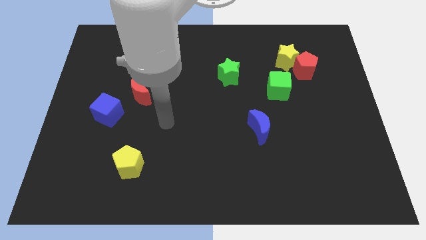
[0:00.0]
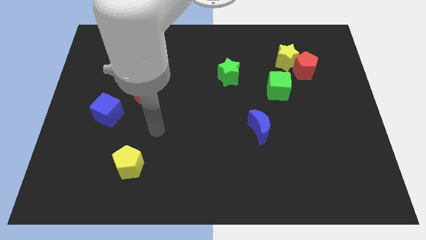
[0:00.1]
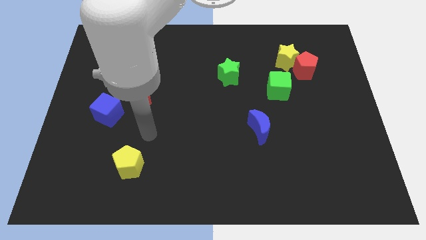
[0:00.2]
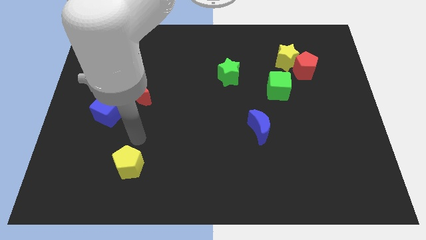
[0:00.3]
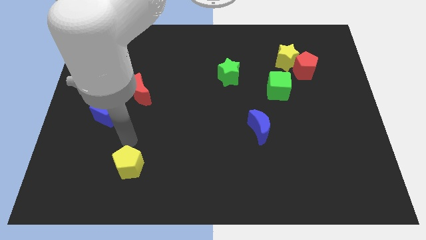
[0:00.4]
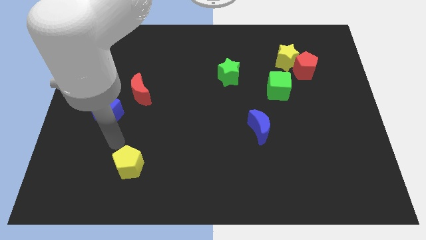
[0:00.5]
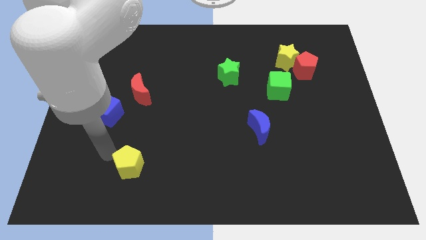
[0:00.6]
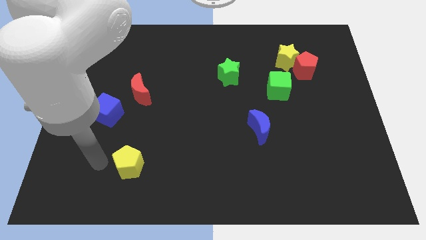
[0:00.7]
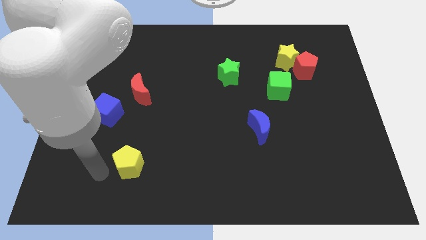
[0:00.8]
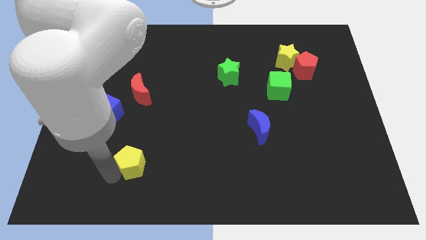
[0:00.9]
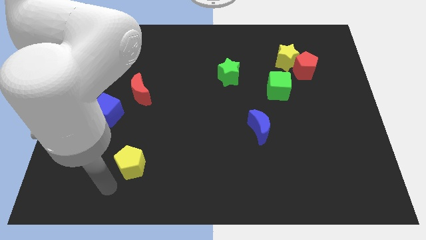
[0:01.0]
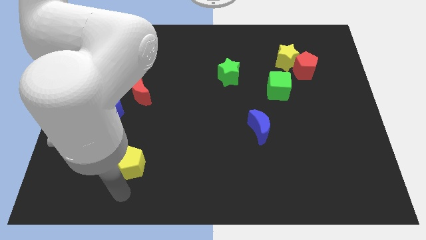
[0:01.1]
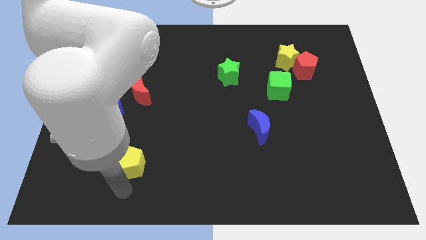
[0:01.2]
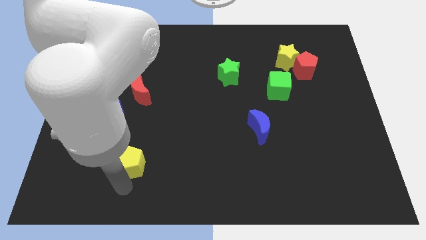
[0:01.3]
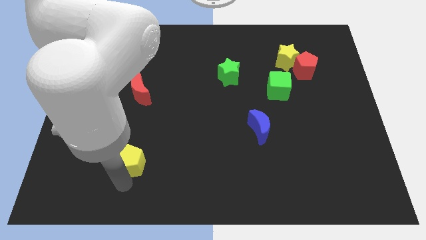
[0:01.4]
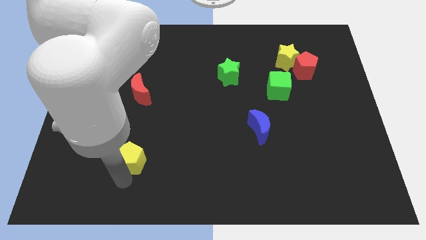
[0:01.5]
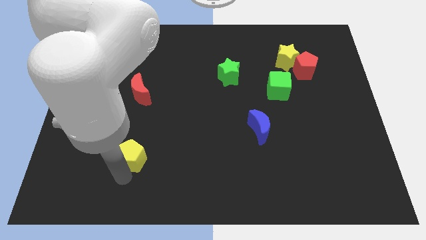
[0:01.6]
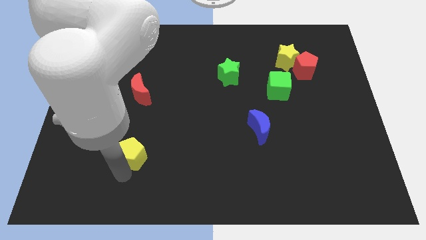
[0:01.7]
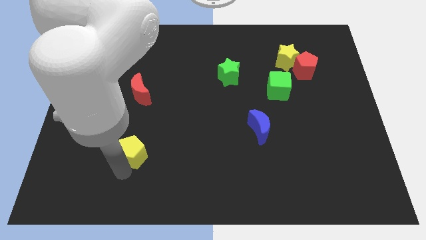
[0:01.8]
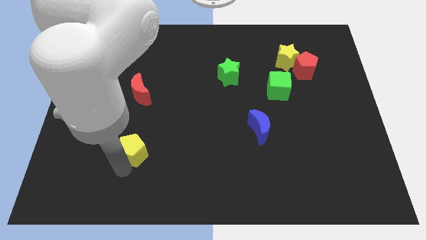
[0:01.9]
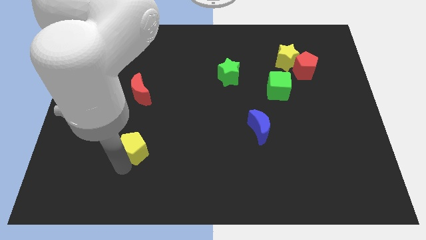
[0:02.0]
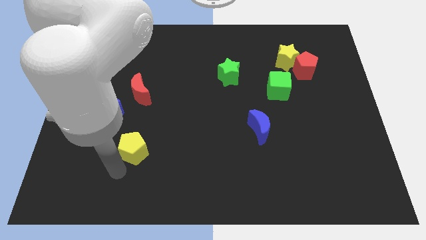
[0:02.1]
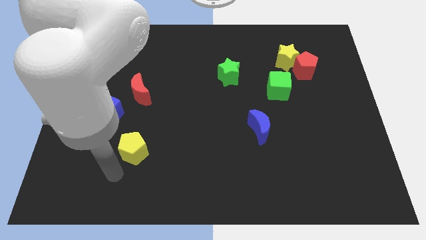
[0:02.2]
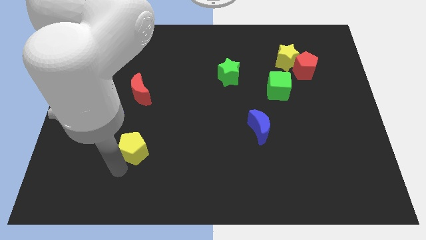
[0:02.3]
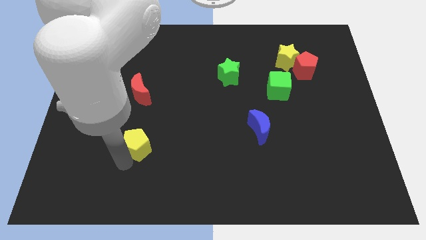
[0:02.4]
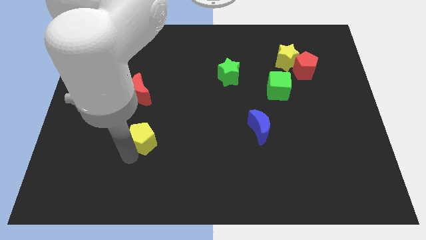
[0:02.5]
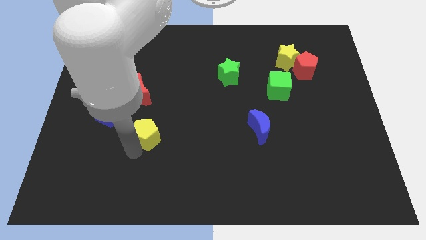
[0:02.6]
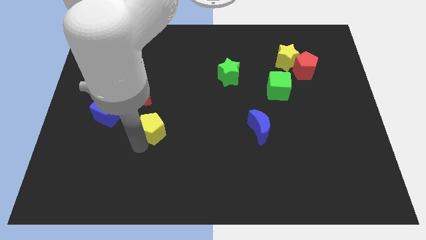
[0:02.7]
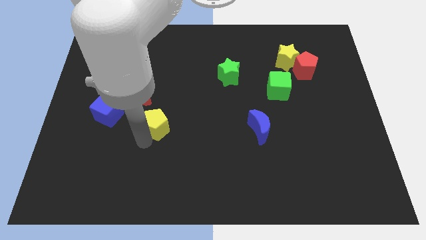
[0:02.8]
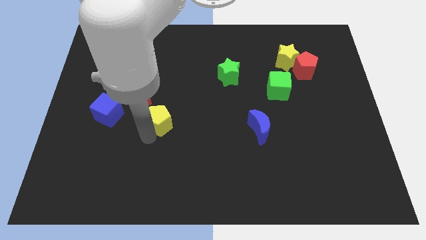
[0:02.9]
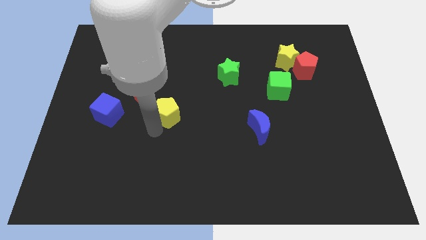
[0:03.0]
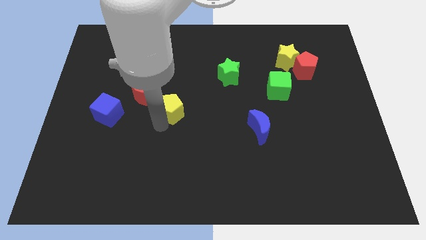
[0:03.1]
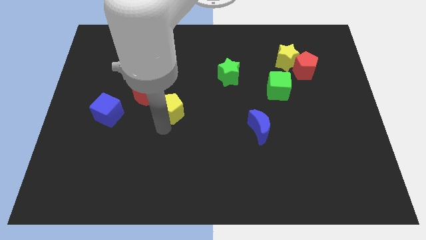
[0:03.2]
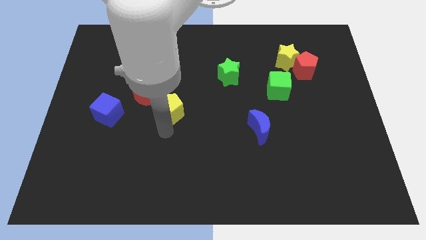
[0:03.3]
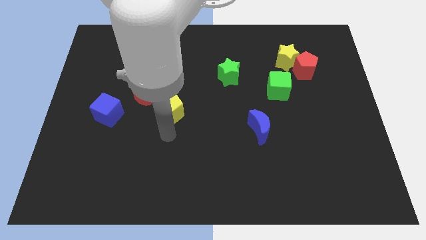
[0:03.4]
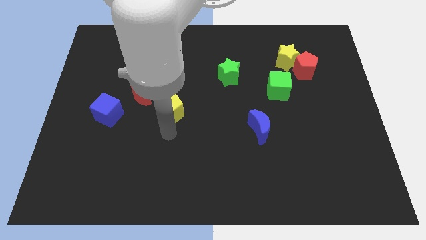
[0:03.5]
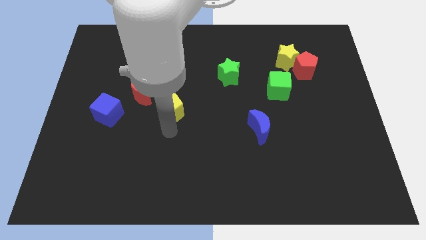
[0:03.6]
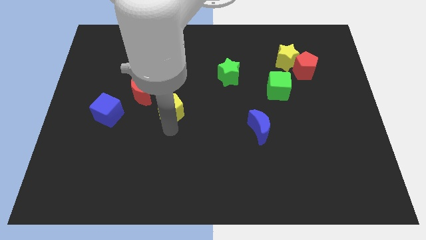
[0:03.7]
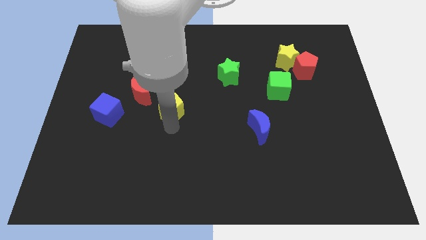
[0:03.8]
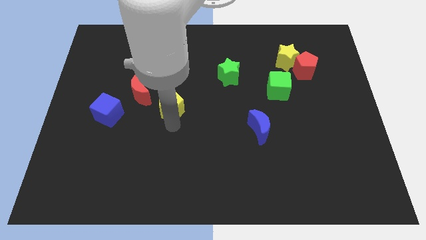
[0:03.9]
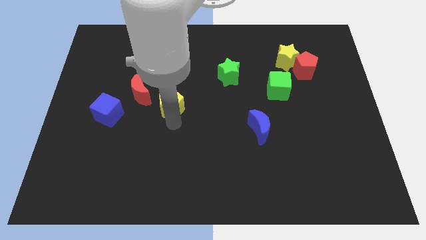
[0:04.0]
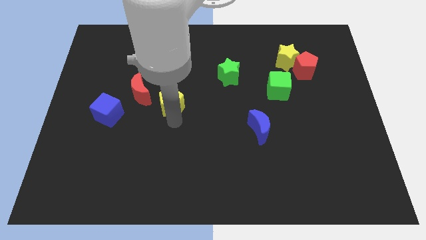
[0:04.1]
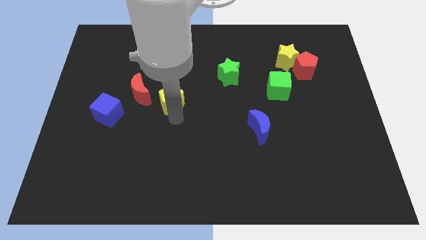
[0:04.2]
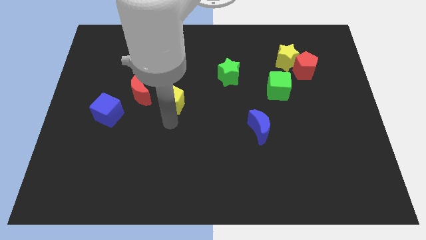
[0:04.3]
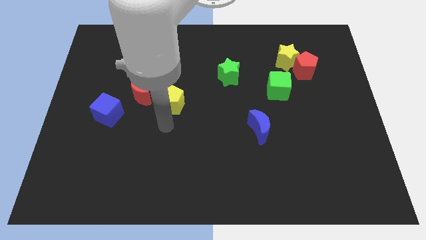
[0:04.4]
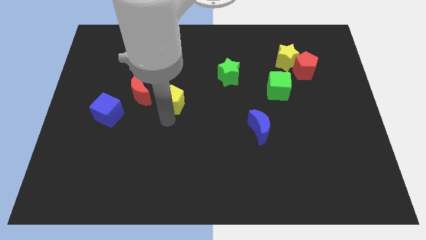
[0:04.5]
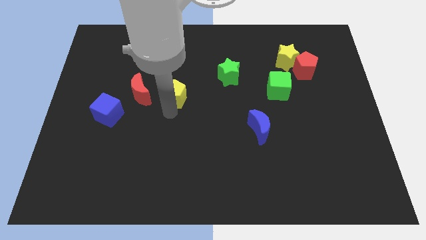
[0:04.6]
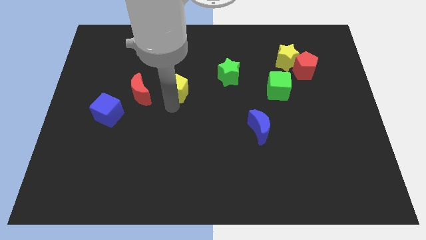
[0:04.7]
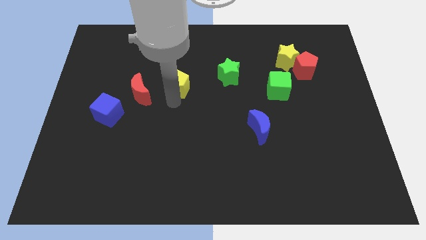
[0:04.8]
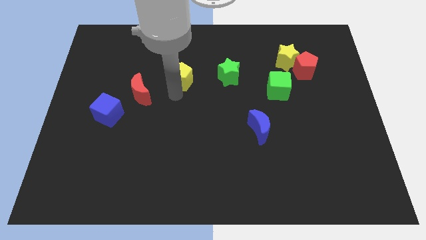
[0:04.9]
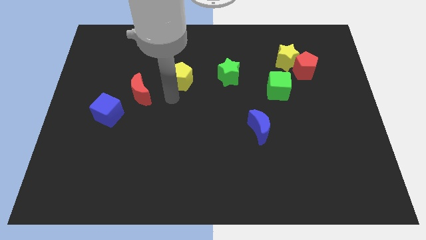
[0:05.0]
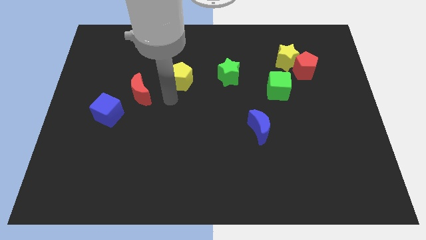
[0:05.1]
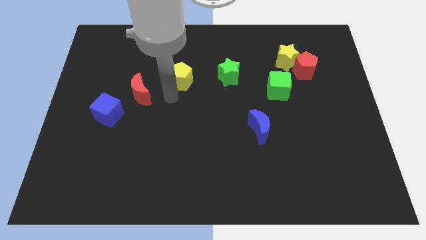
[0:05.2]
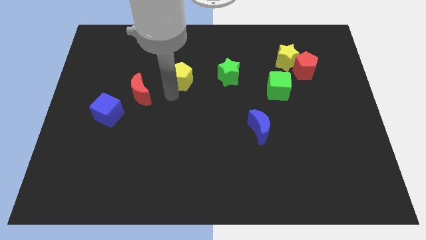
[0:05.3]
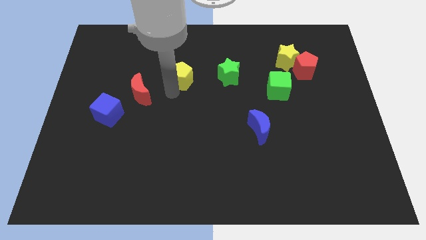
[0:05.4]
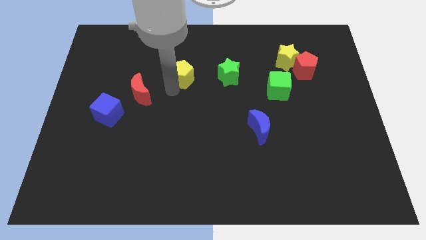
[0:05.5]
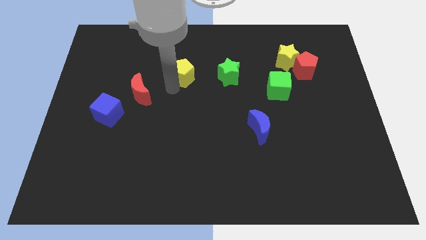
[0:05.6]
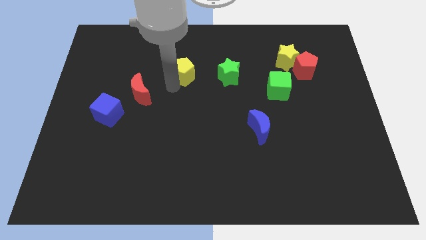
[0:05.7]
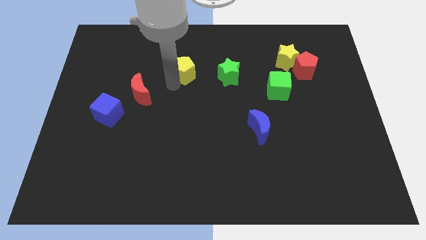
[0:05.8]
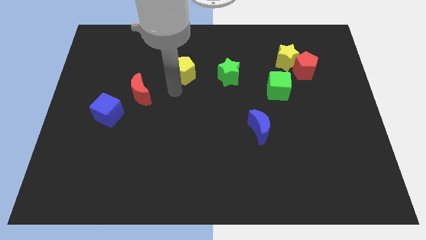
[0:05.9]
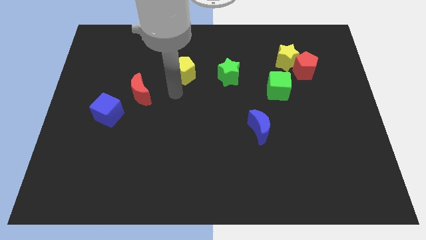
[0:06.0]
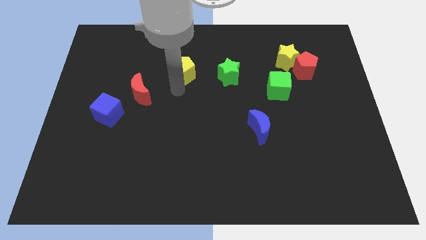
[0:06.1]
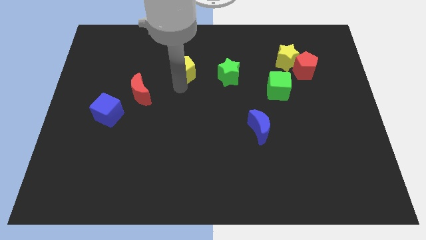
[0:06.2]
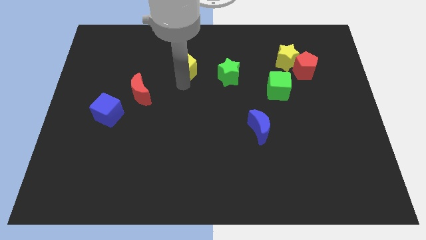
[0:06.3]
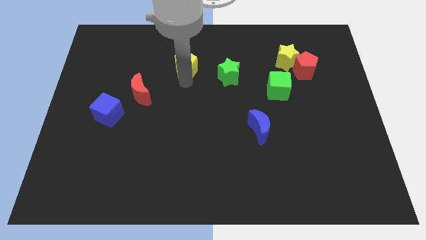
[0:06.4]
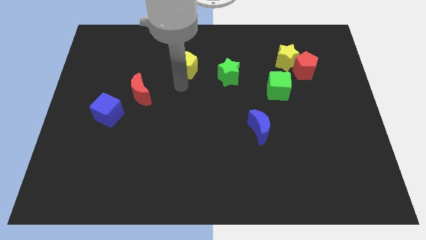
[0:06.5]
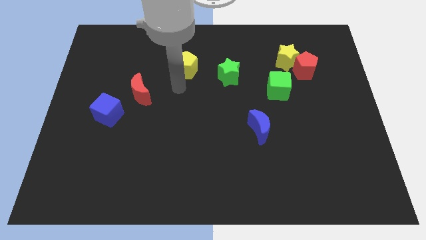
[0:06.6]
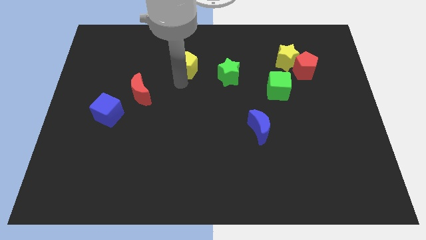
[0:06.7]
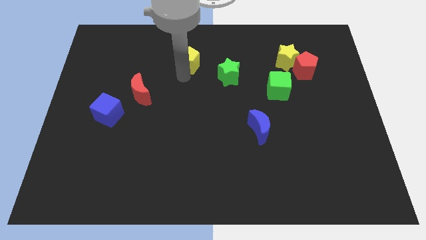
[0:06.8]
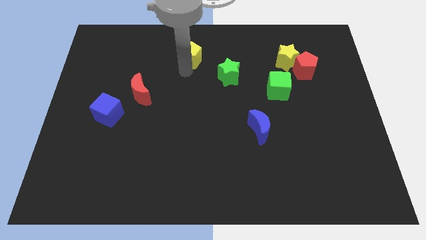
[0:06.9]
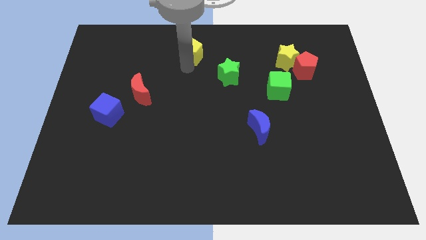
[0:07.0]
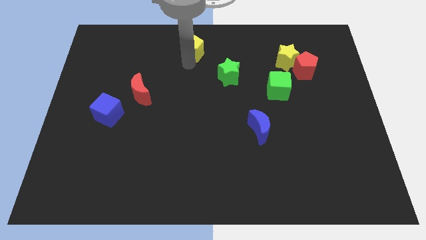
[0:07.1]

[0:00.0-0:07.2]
push the yellow pentagon to the top side
